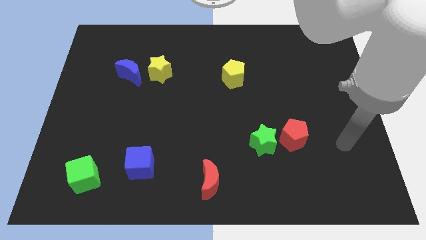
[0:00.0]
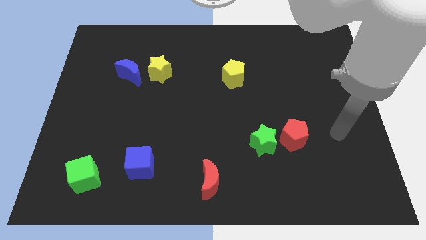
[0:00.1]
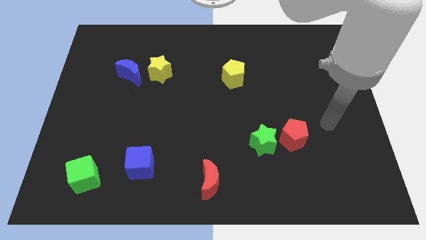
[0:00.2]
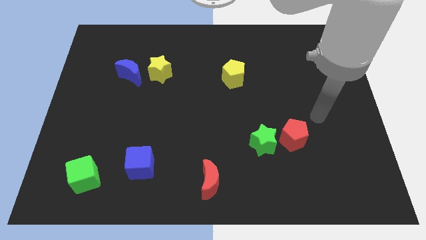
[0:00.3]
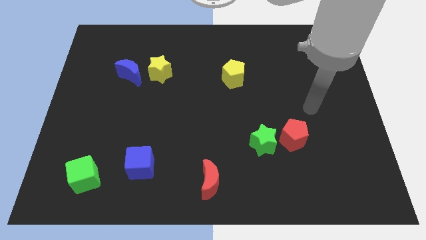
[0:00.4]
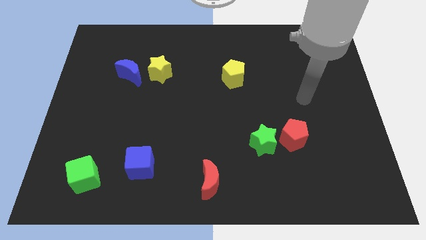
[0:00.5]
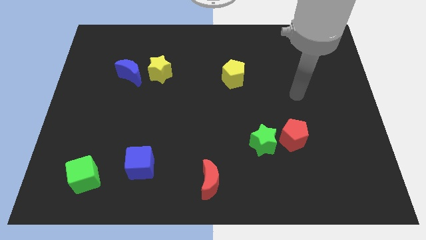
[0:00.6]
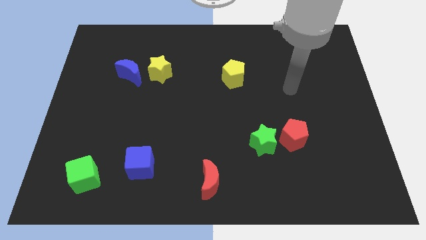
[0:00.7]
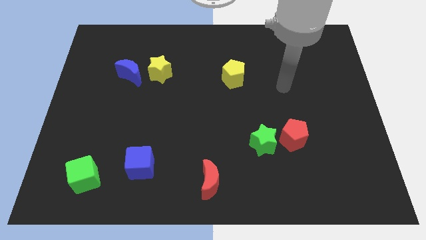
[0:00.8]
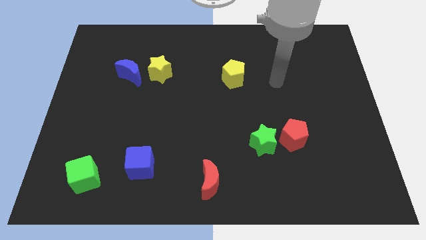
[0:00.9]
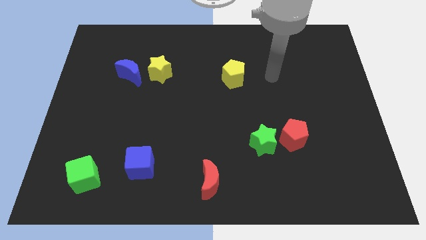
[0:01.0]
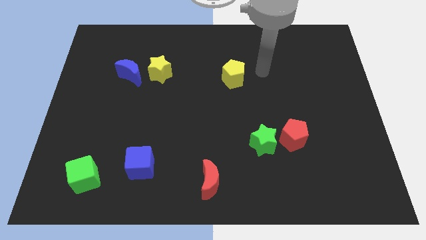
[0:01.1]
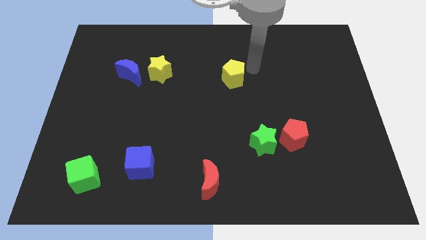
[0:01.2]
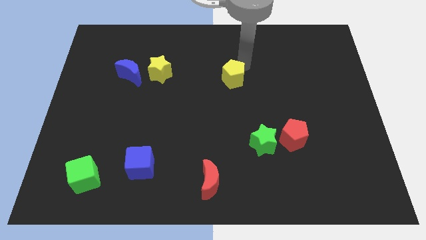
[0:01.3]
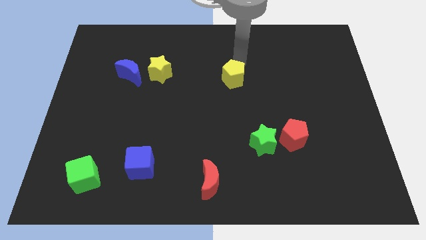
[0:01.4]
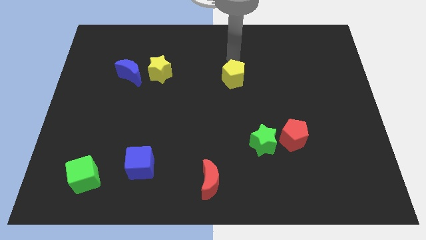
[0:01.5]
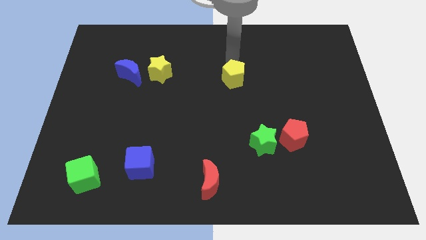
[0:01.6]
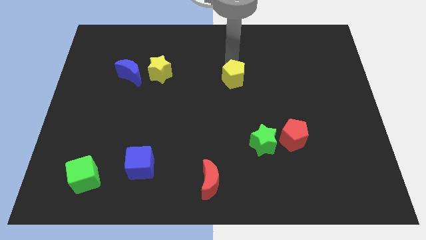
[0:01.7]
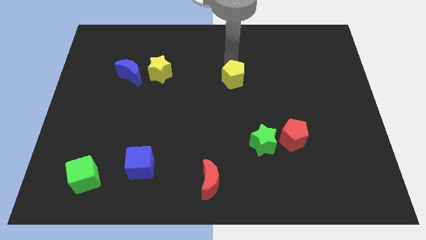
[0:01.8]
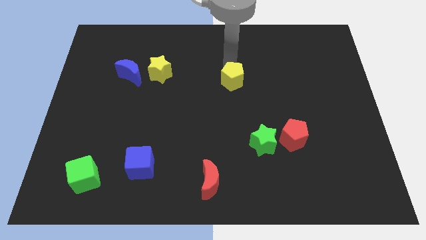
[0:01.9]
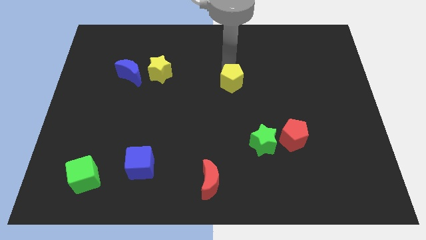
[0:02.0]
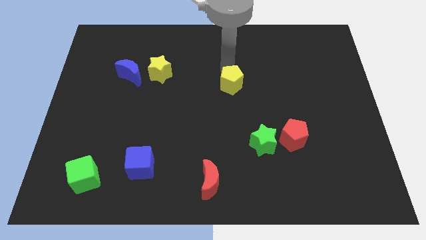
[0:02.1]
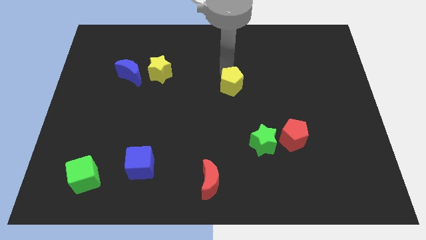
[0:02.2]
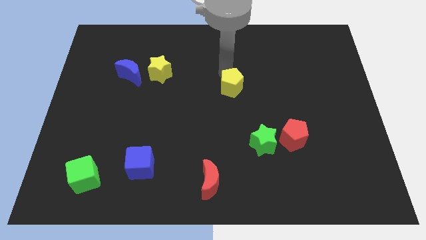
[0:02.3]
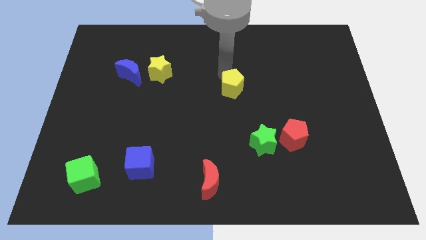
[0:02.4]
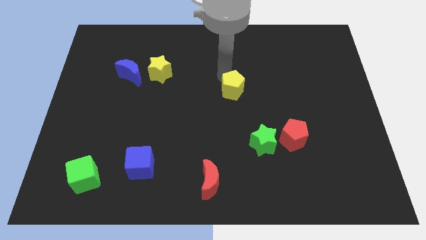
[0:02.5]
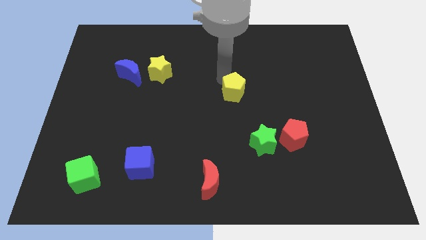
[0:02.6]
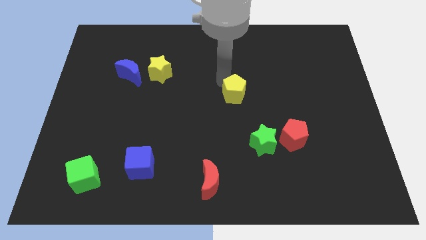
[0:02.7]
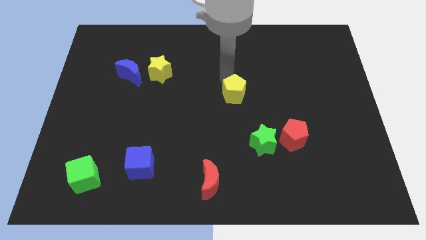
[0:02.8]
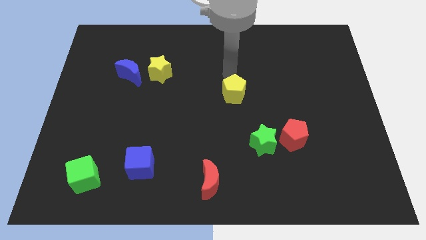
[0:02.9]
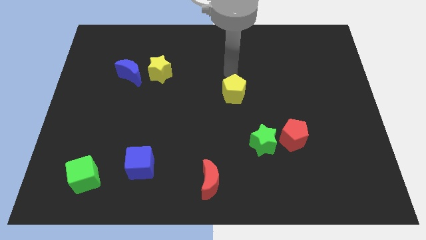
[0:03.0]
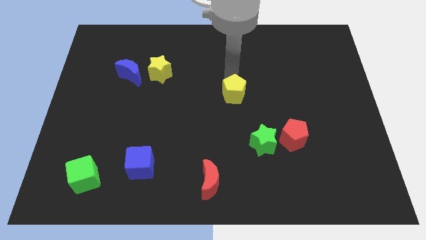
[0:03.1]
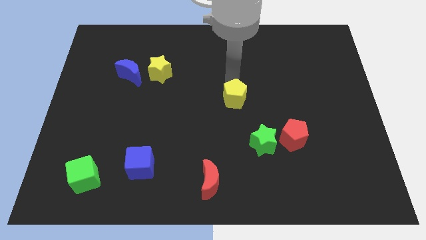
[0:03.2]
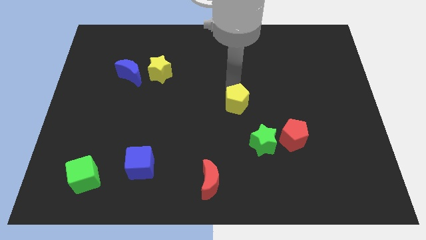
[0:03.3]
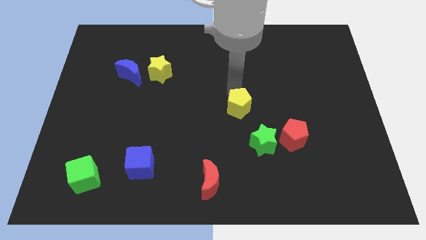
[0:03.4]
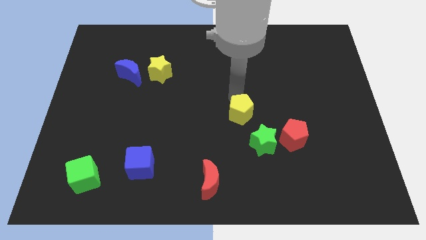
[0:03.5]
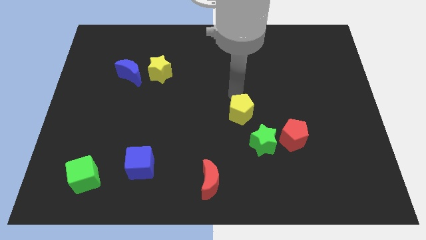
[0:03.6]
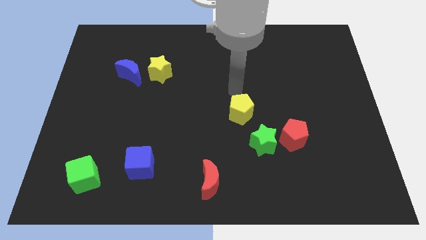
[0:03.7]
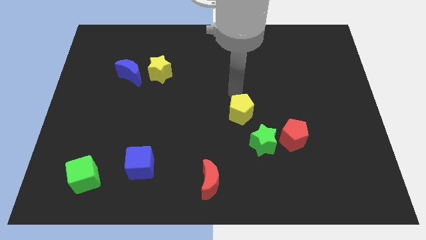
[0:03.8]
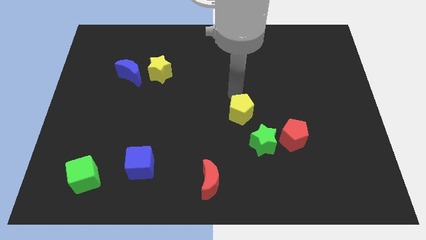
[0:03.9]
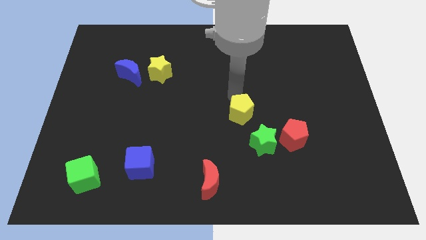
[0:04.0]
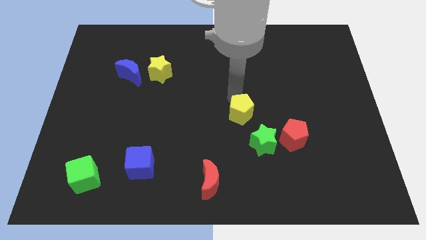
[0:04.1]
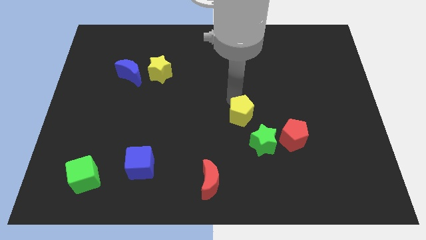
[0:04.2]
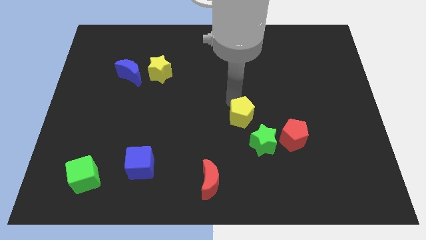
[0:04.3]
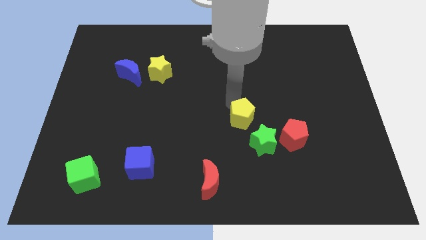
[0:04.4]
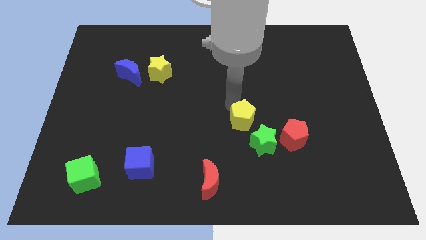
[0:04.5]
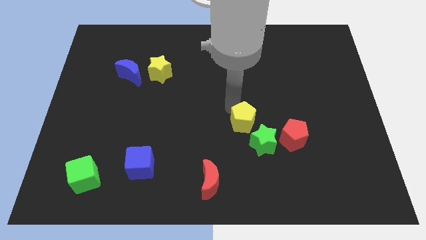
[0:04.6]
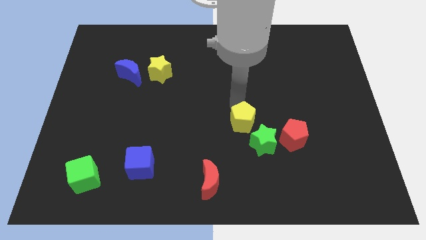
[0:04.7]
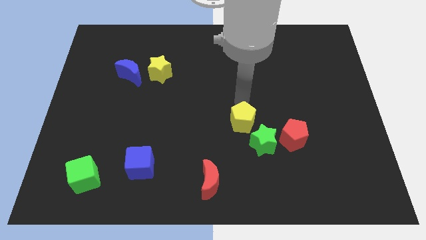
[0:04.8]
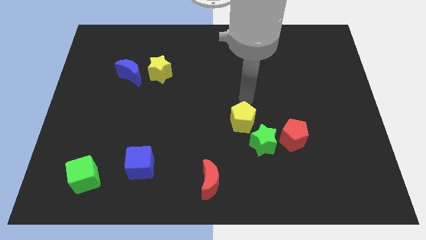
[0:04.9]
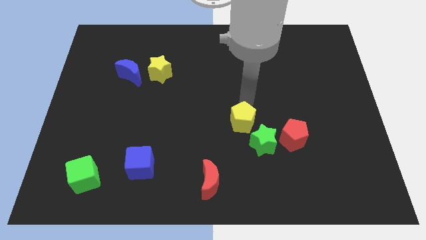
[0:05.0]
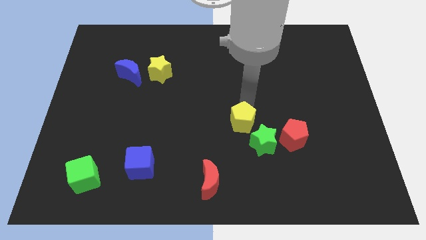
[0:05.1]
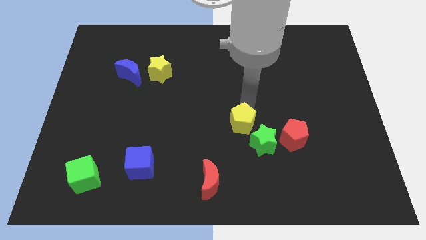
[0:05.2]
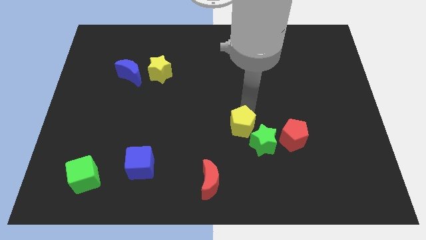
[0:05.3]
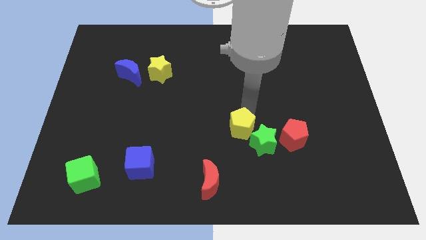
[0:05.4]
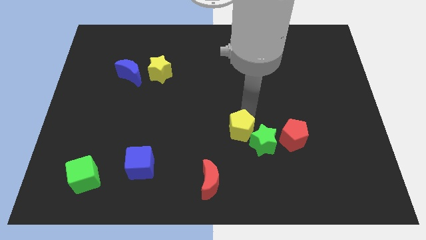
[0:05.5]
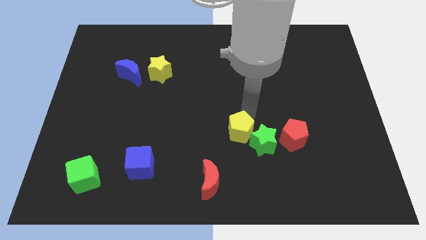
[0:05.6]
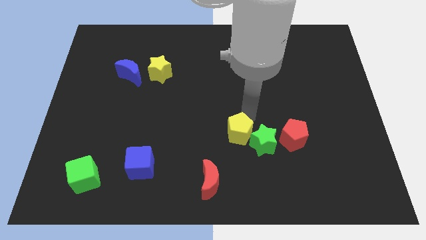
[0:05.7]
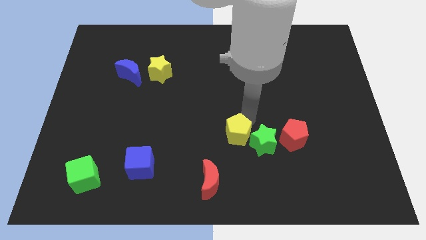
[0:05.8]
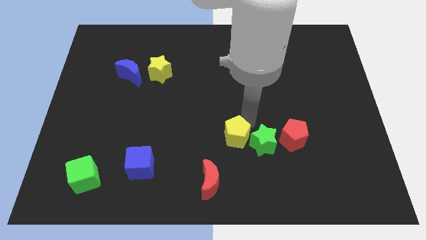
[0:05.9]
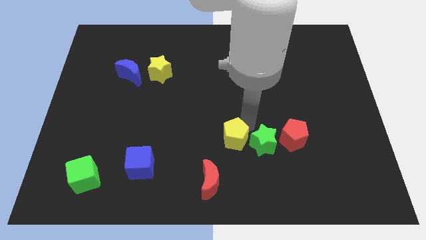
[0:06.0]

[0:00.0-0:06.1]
push the yellow pentagon to the top right side of the red moon
